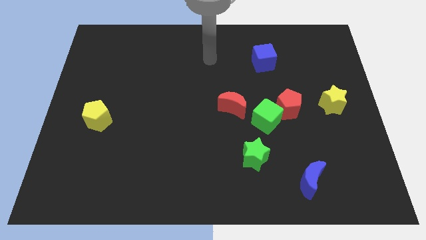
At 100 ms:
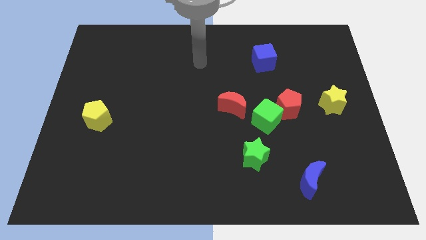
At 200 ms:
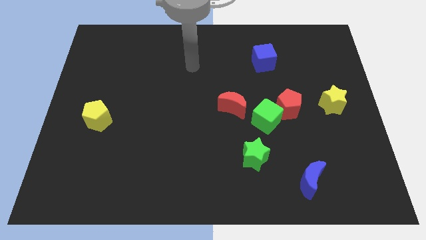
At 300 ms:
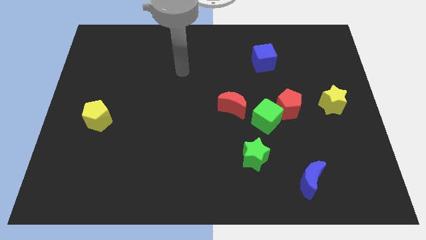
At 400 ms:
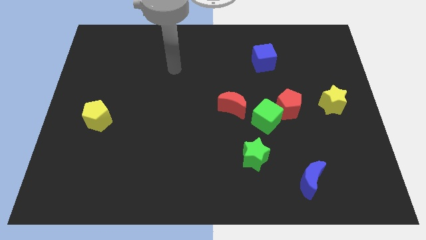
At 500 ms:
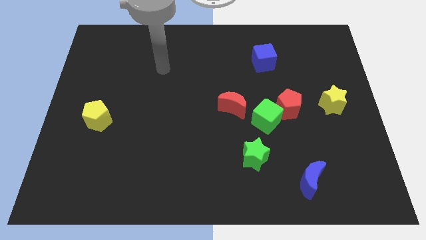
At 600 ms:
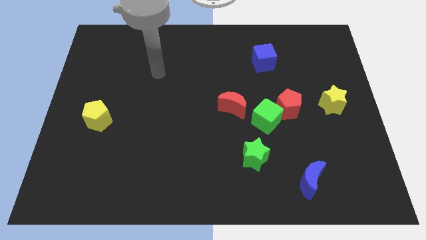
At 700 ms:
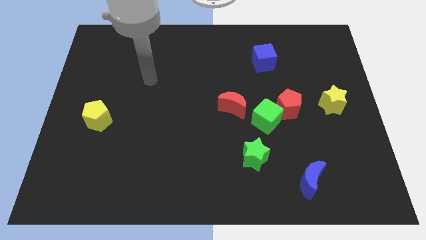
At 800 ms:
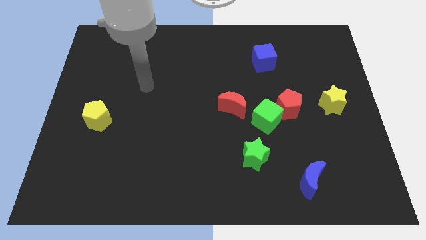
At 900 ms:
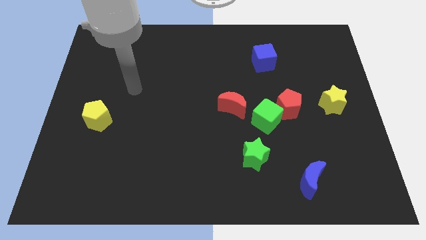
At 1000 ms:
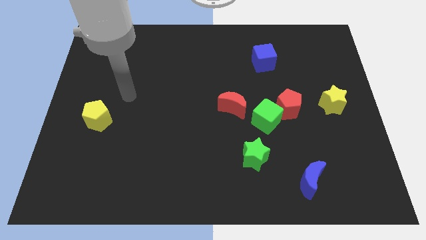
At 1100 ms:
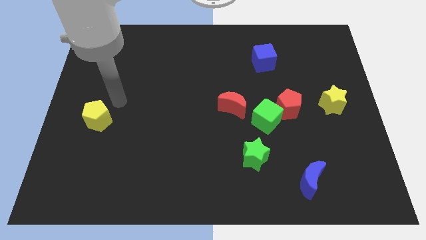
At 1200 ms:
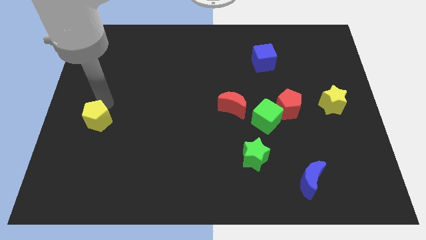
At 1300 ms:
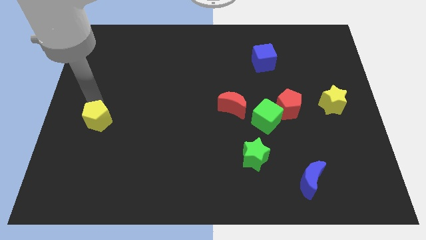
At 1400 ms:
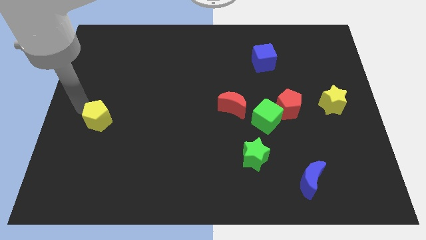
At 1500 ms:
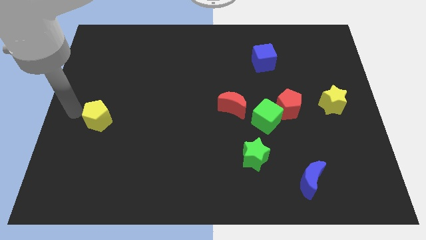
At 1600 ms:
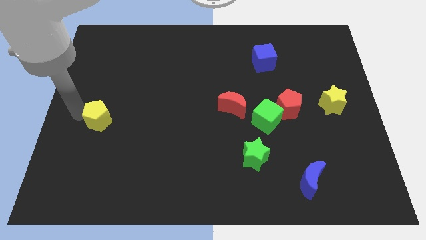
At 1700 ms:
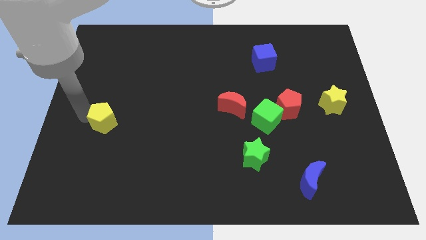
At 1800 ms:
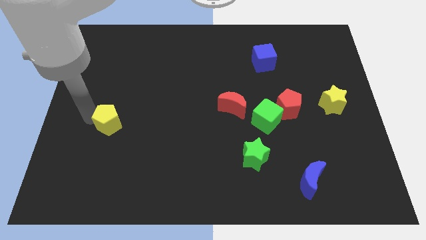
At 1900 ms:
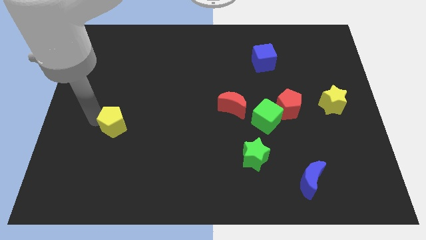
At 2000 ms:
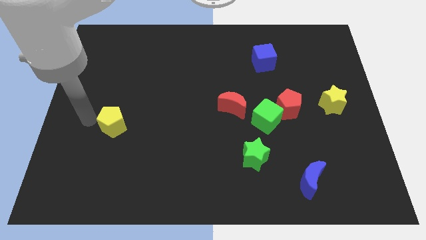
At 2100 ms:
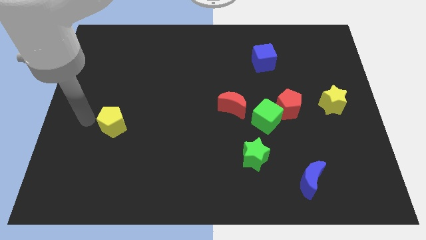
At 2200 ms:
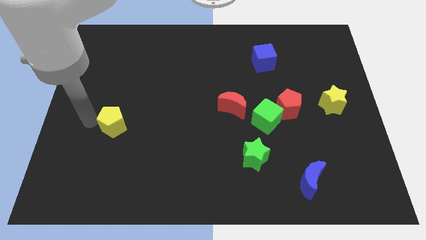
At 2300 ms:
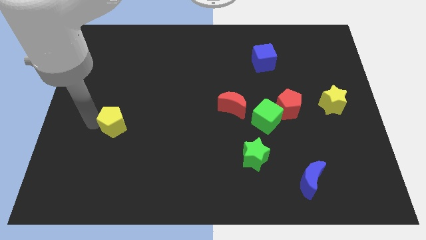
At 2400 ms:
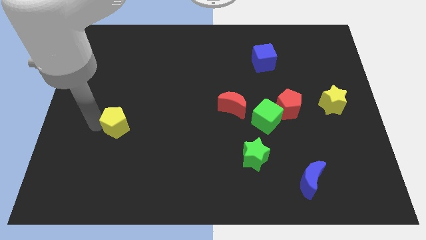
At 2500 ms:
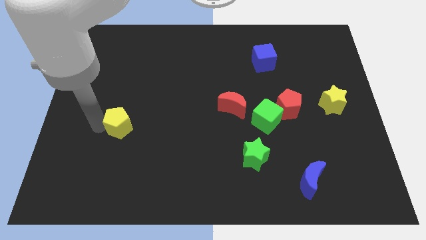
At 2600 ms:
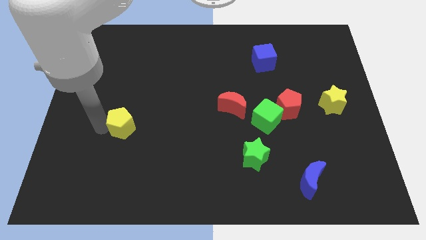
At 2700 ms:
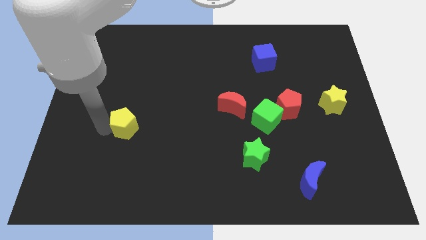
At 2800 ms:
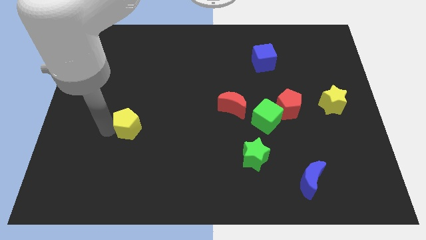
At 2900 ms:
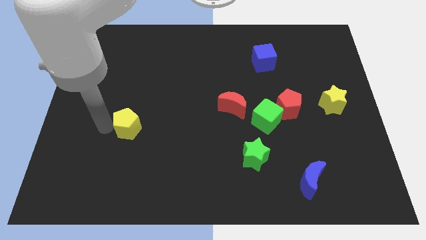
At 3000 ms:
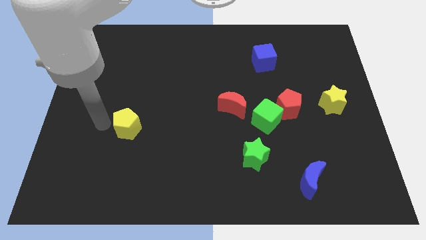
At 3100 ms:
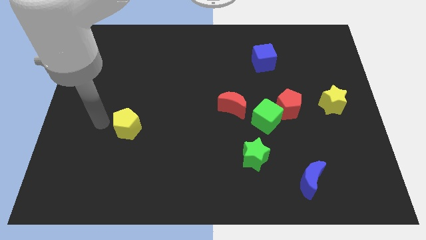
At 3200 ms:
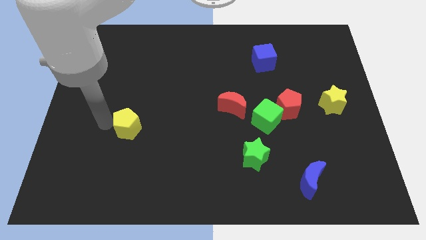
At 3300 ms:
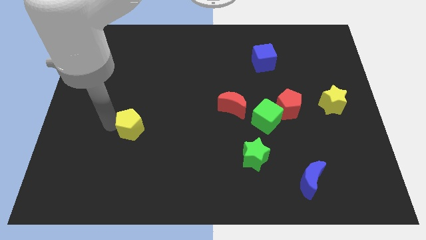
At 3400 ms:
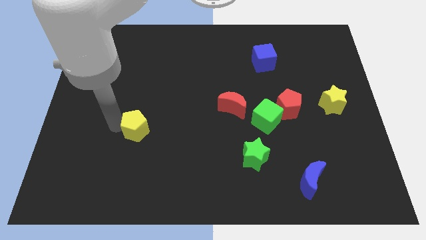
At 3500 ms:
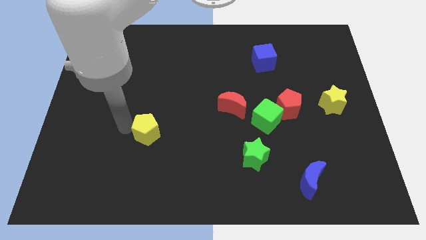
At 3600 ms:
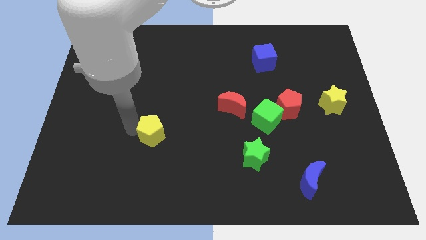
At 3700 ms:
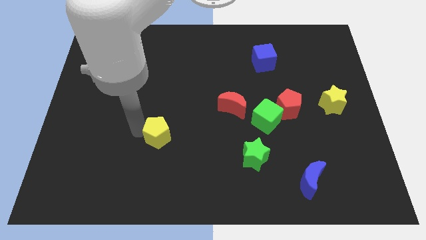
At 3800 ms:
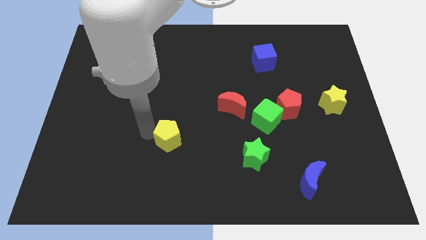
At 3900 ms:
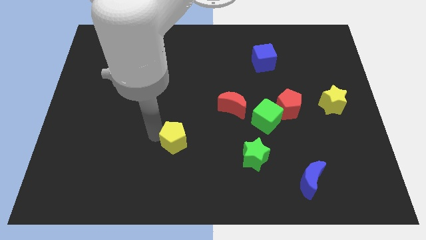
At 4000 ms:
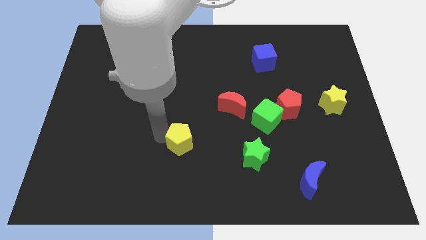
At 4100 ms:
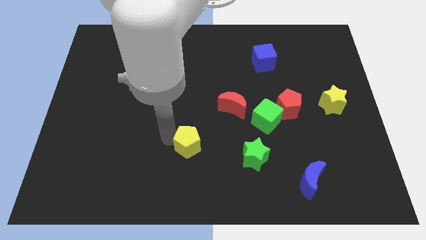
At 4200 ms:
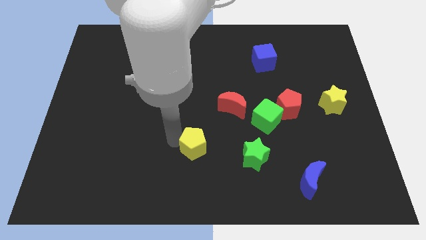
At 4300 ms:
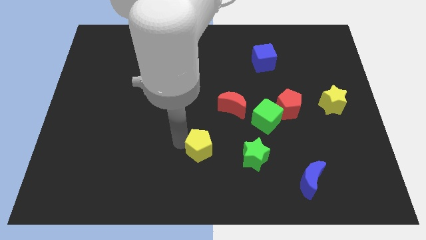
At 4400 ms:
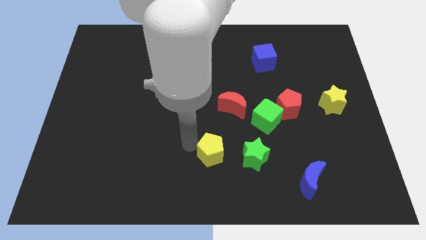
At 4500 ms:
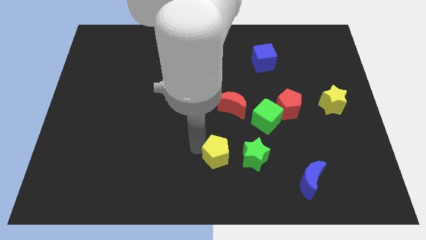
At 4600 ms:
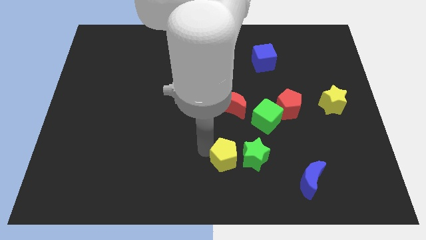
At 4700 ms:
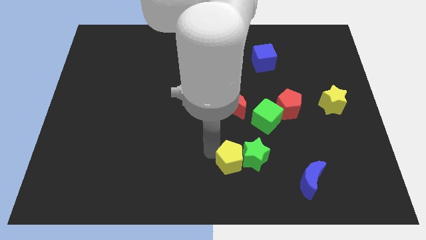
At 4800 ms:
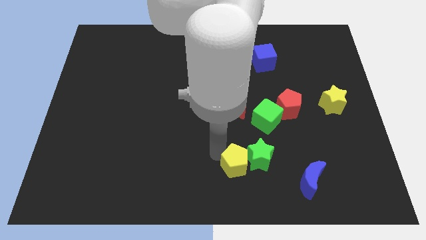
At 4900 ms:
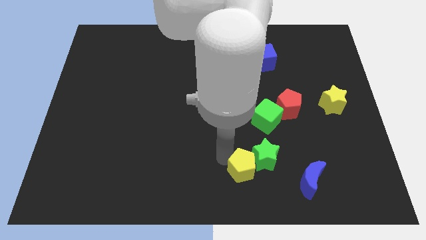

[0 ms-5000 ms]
slide the yellow pentagon left of the blue moon

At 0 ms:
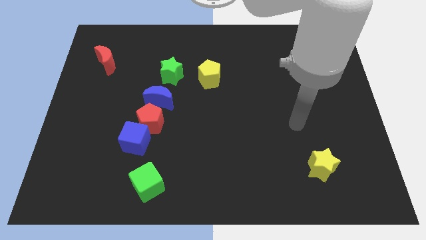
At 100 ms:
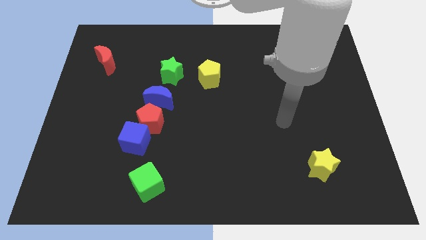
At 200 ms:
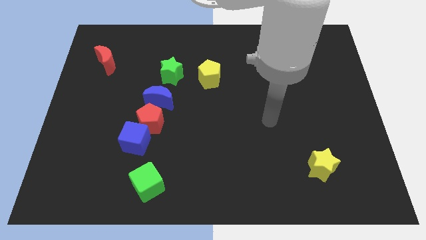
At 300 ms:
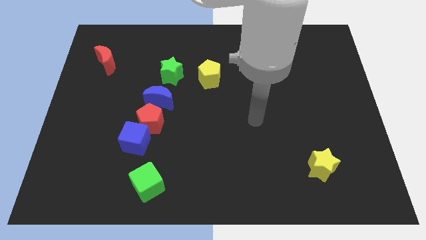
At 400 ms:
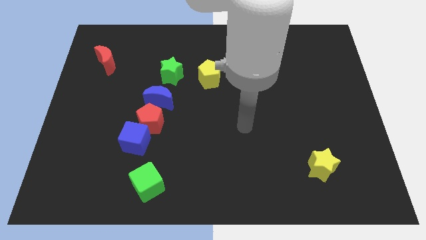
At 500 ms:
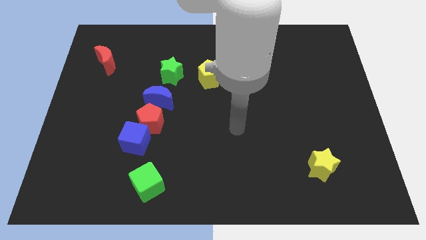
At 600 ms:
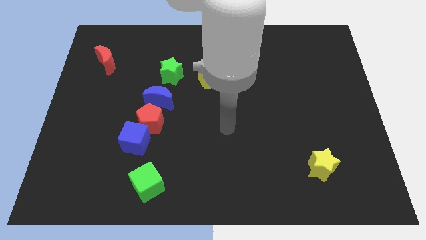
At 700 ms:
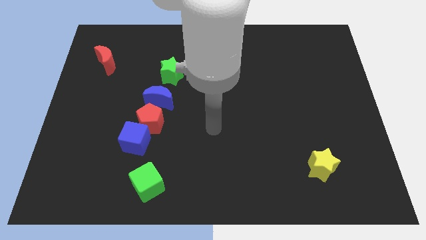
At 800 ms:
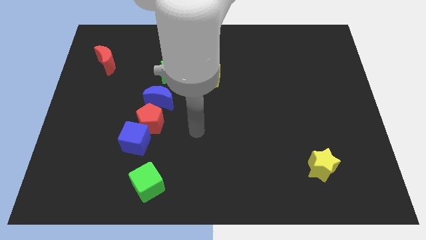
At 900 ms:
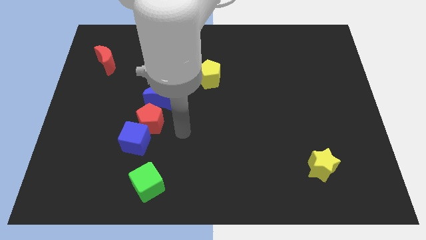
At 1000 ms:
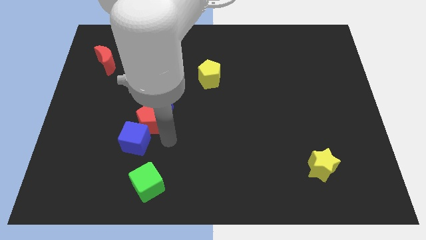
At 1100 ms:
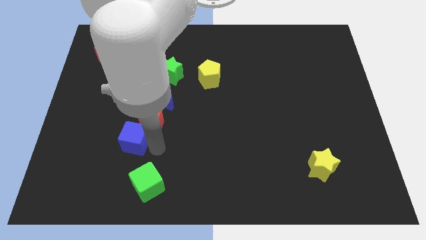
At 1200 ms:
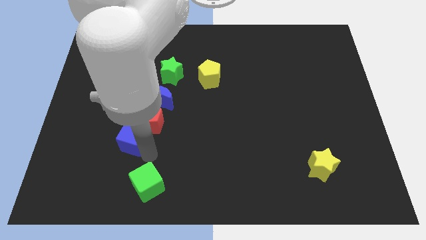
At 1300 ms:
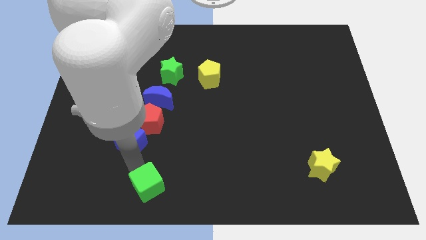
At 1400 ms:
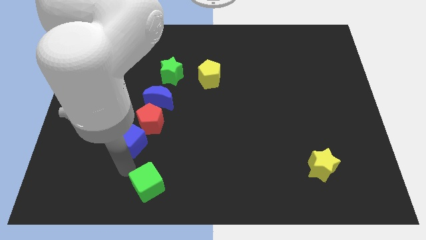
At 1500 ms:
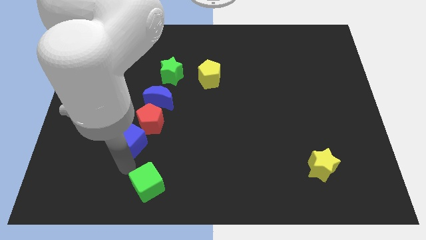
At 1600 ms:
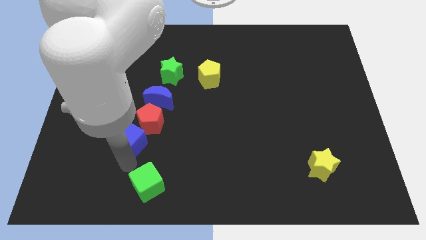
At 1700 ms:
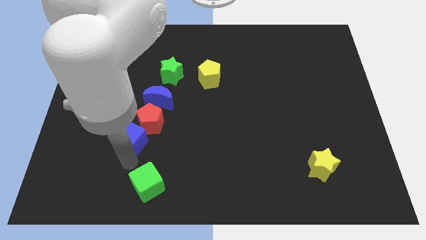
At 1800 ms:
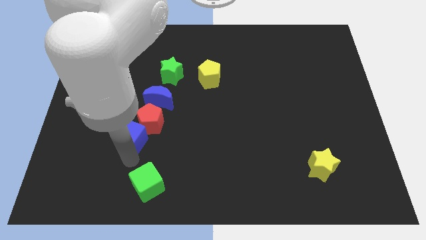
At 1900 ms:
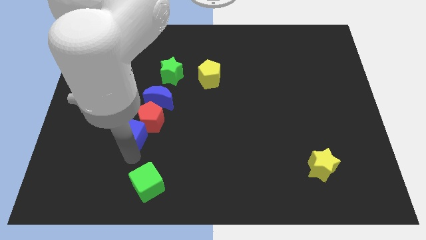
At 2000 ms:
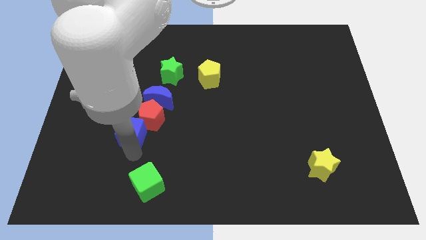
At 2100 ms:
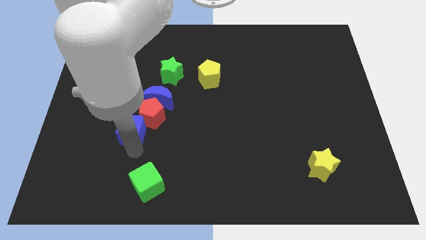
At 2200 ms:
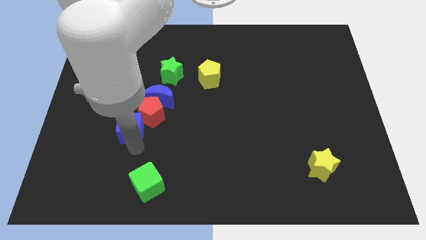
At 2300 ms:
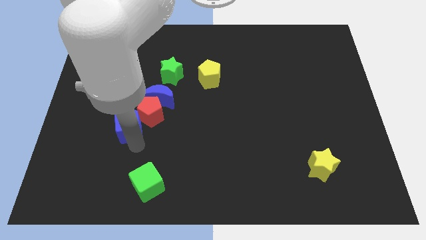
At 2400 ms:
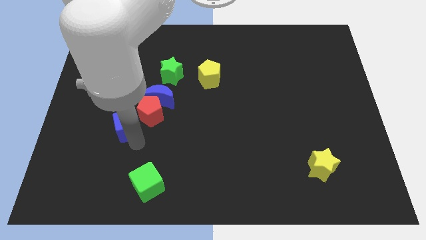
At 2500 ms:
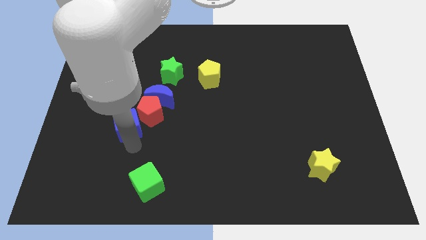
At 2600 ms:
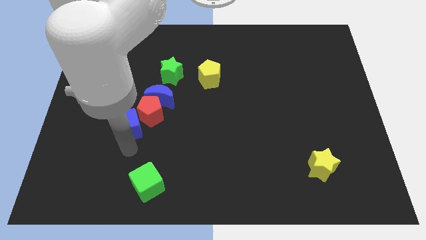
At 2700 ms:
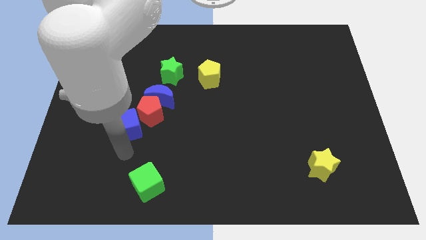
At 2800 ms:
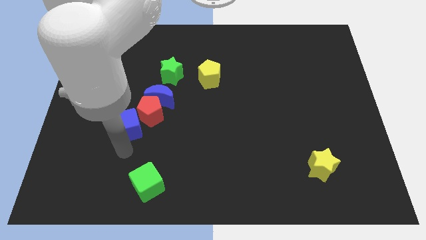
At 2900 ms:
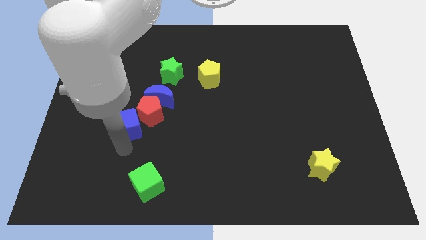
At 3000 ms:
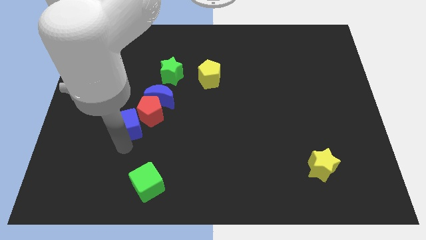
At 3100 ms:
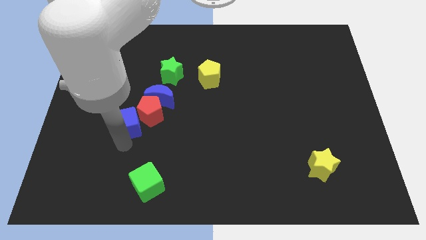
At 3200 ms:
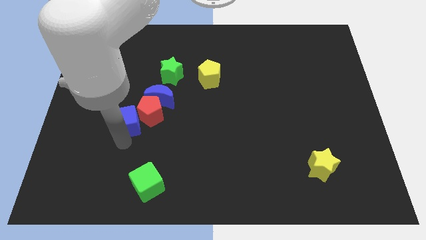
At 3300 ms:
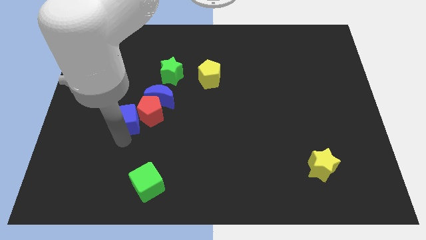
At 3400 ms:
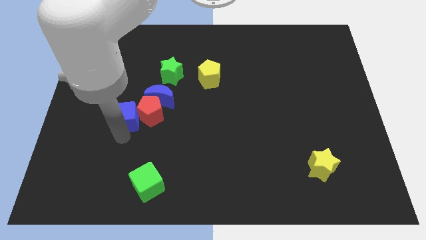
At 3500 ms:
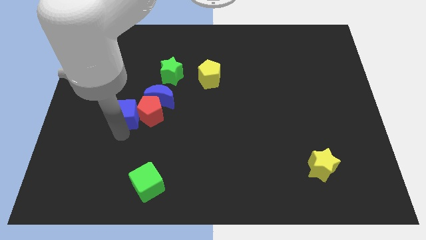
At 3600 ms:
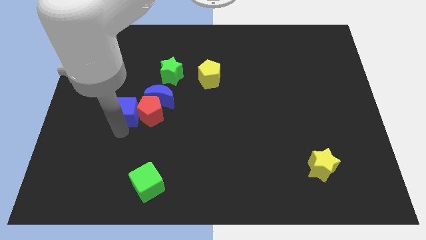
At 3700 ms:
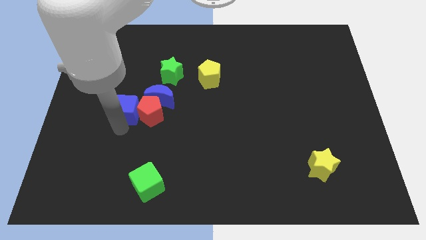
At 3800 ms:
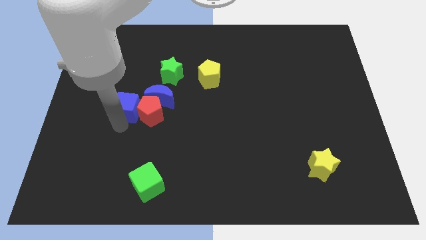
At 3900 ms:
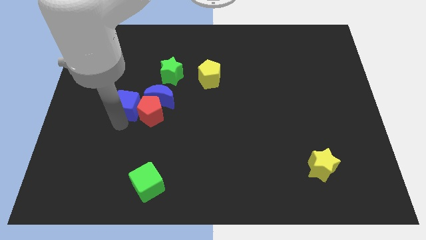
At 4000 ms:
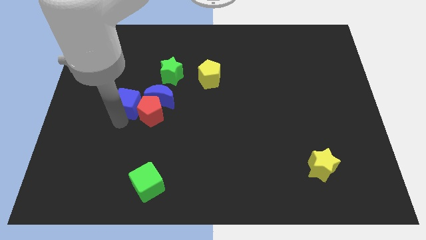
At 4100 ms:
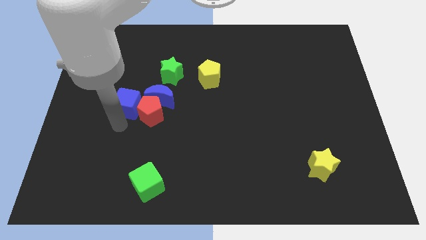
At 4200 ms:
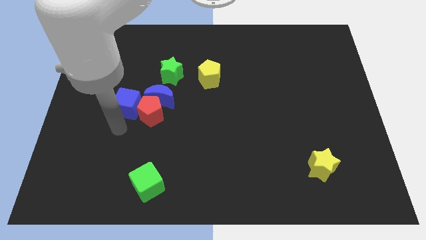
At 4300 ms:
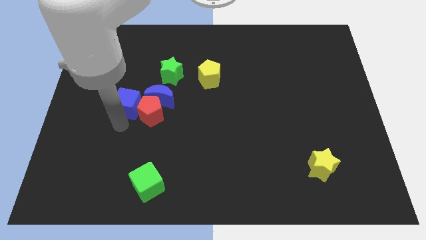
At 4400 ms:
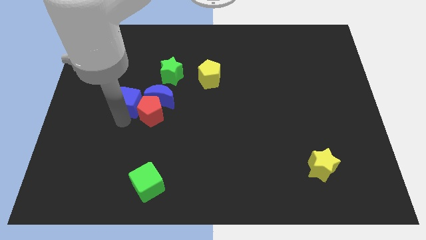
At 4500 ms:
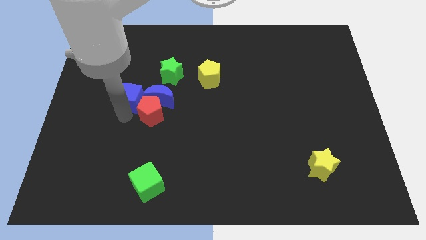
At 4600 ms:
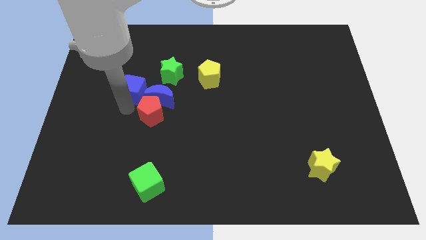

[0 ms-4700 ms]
slide the blue cube above the red pentagon
